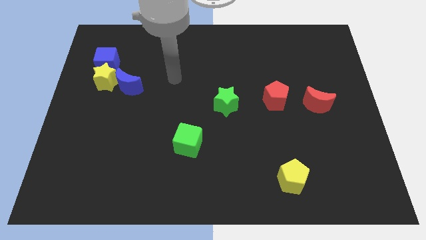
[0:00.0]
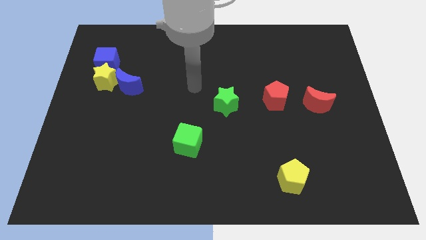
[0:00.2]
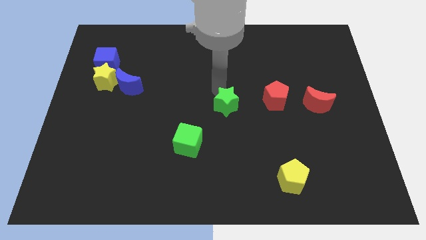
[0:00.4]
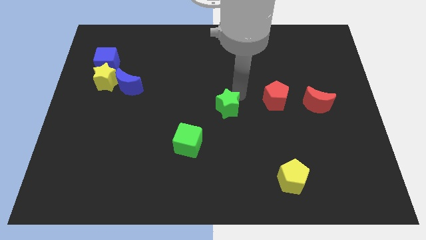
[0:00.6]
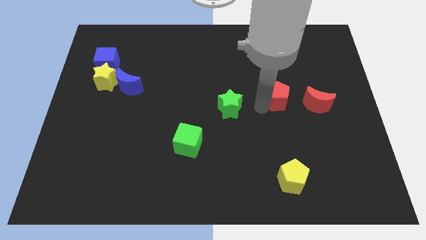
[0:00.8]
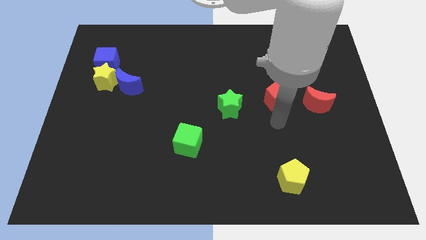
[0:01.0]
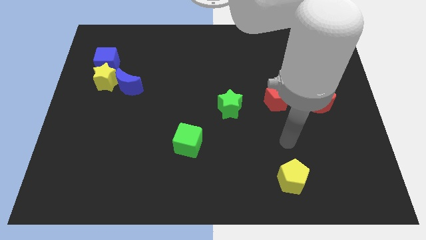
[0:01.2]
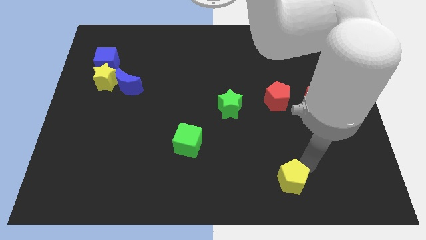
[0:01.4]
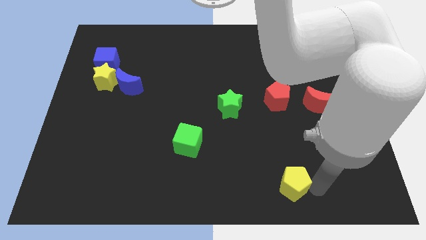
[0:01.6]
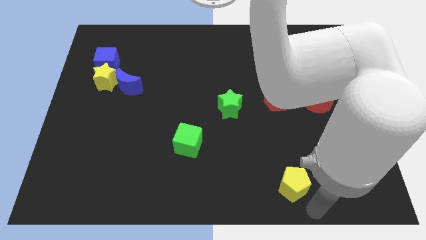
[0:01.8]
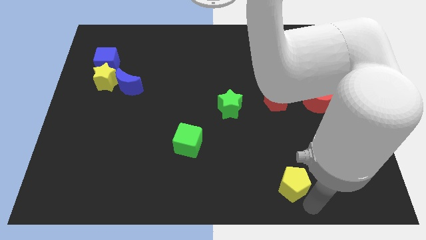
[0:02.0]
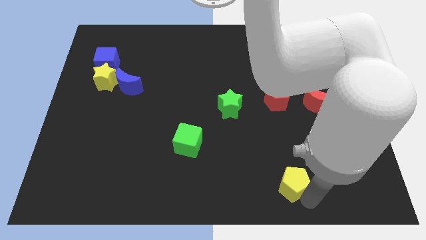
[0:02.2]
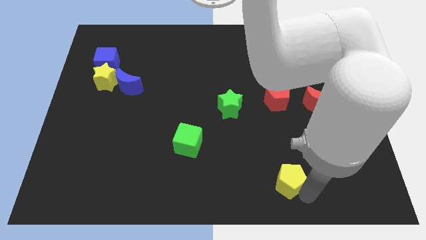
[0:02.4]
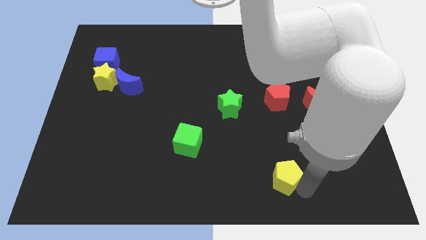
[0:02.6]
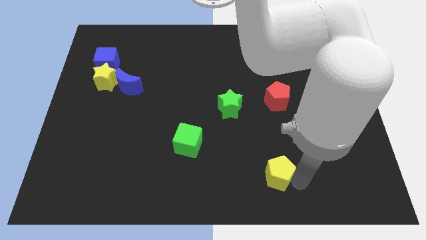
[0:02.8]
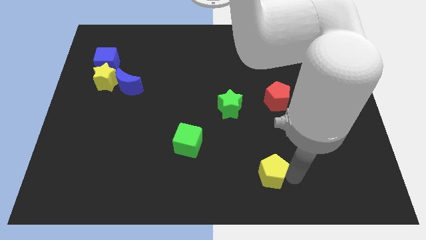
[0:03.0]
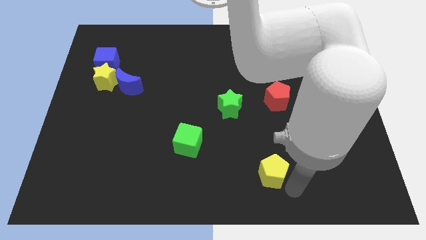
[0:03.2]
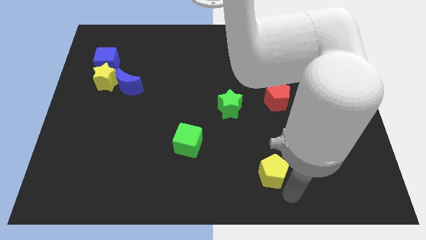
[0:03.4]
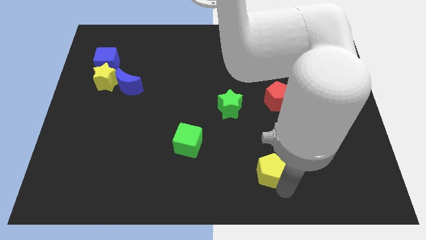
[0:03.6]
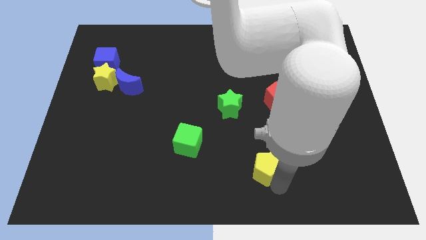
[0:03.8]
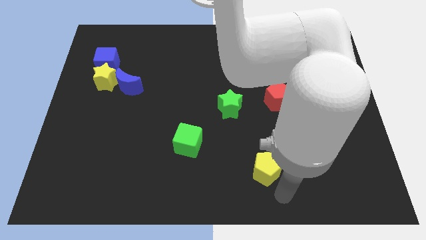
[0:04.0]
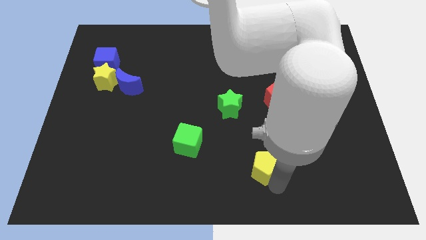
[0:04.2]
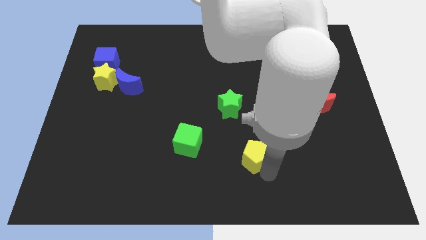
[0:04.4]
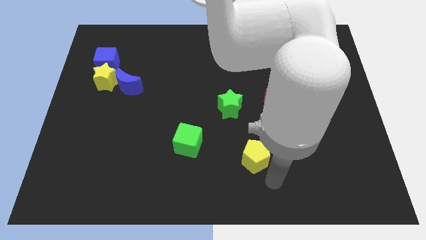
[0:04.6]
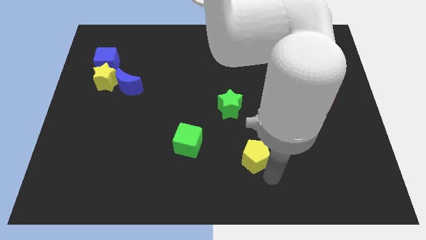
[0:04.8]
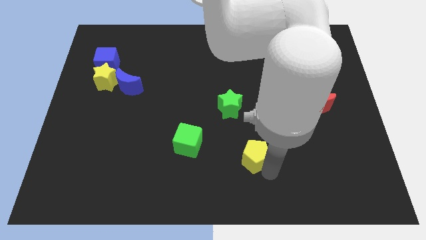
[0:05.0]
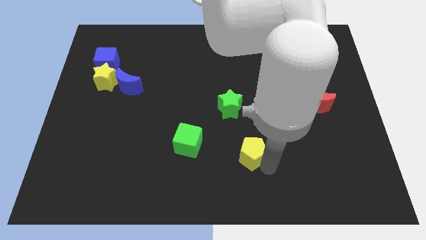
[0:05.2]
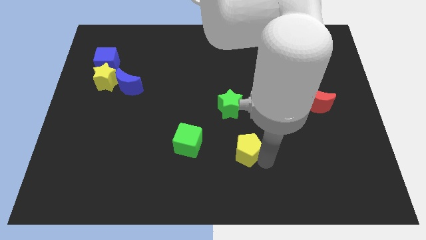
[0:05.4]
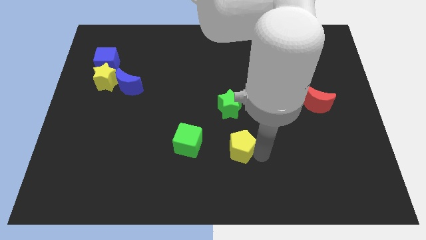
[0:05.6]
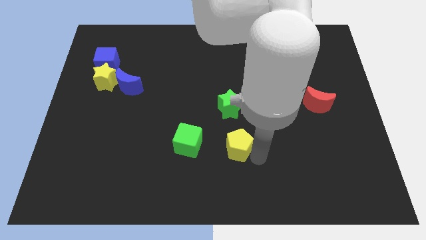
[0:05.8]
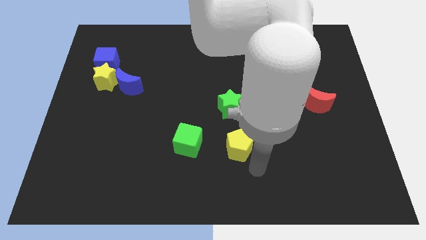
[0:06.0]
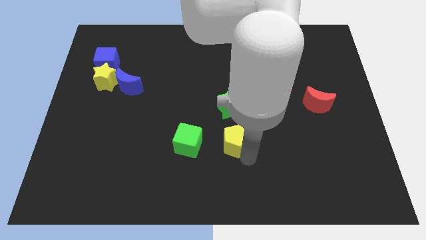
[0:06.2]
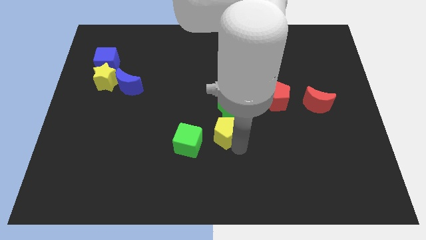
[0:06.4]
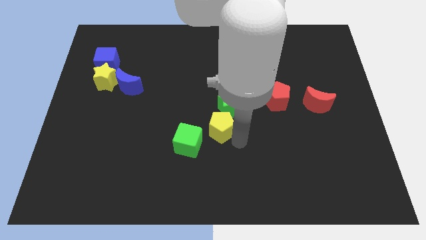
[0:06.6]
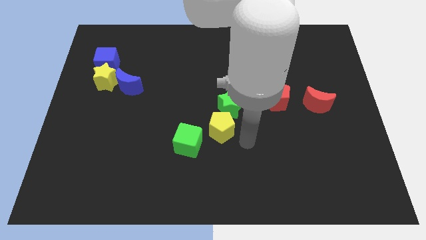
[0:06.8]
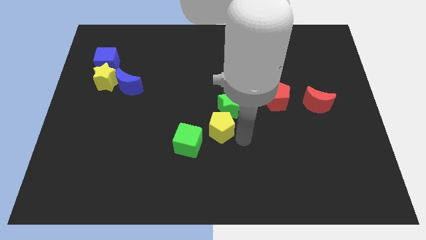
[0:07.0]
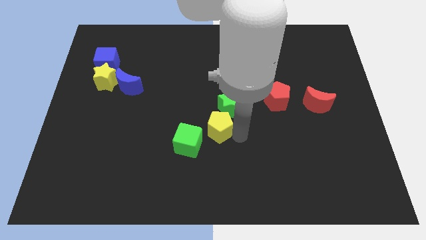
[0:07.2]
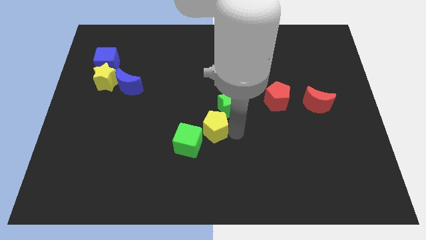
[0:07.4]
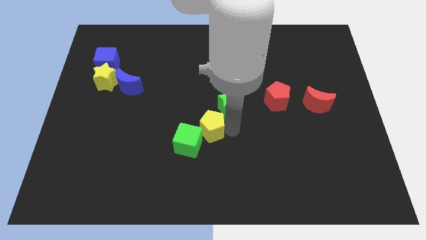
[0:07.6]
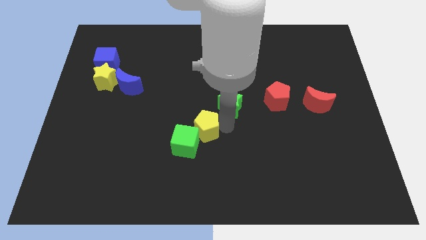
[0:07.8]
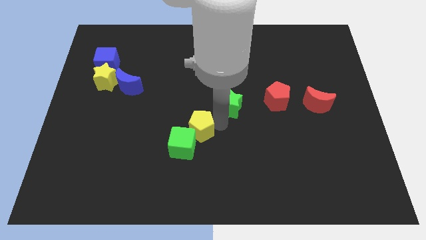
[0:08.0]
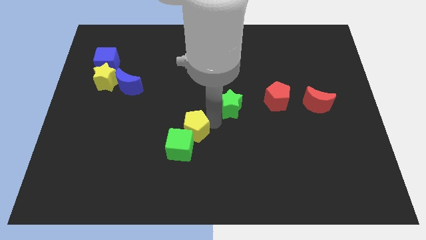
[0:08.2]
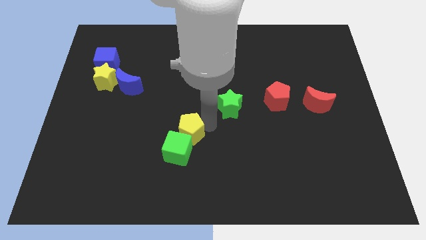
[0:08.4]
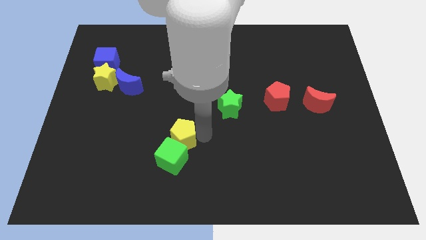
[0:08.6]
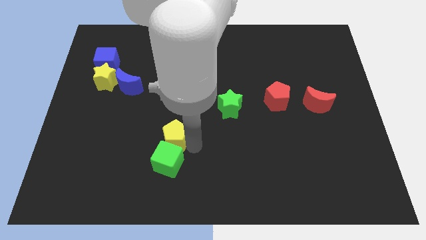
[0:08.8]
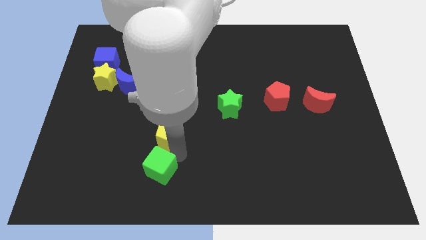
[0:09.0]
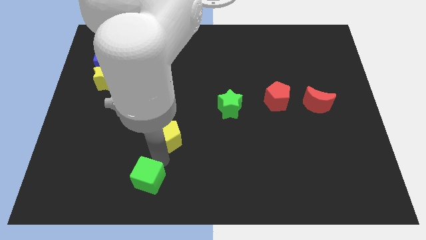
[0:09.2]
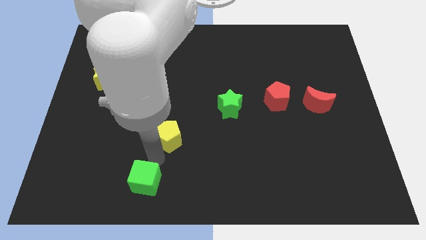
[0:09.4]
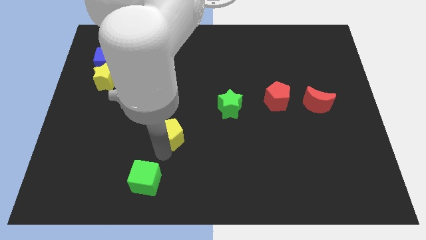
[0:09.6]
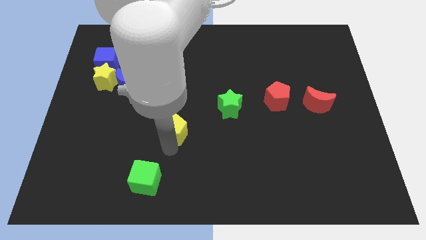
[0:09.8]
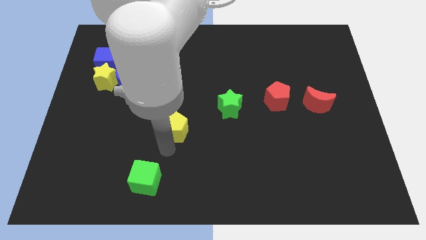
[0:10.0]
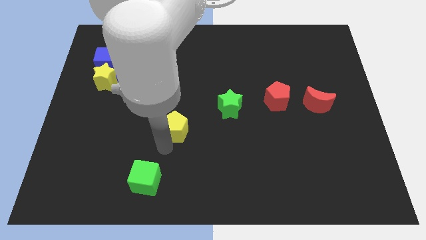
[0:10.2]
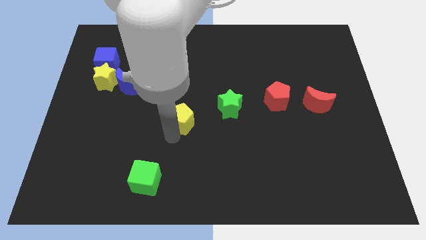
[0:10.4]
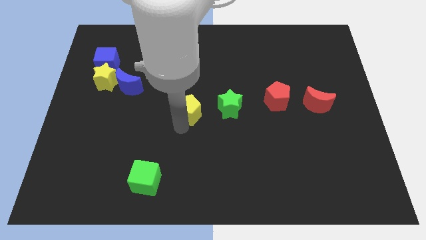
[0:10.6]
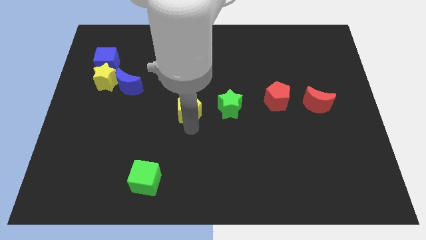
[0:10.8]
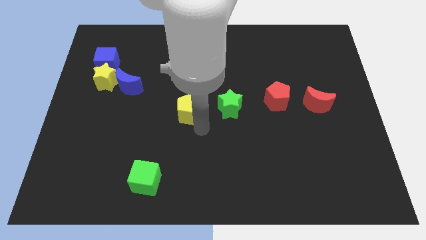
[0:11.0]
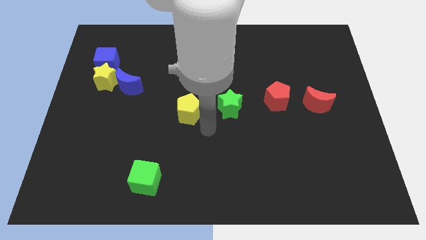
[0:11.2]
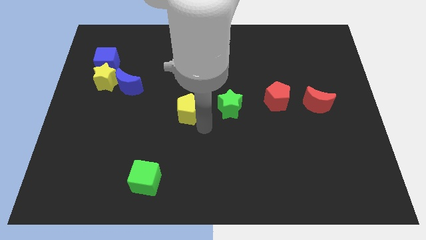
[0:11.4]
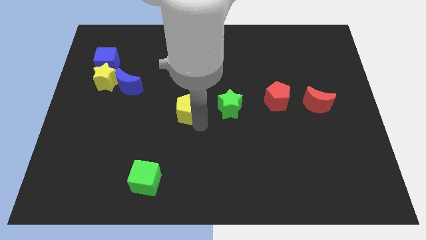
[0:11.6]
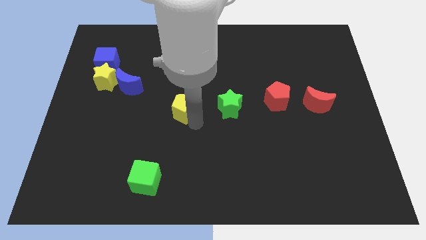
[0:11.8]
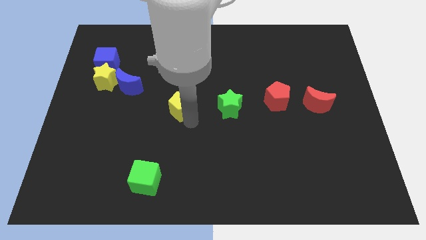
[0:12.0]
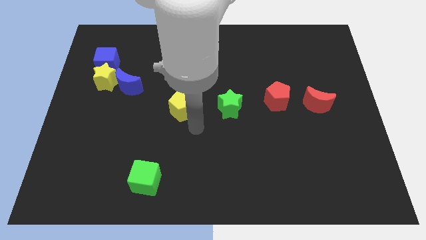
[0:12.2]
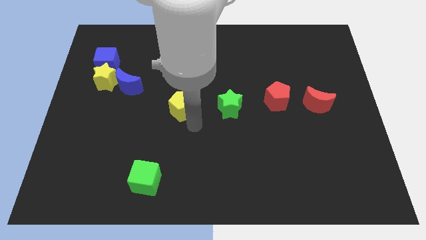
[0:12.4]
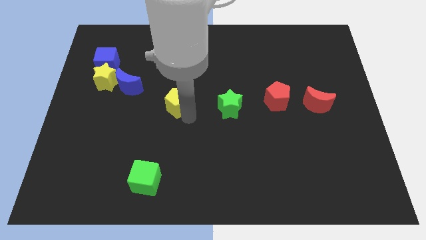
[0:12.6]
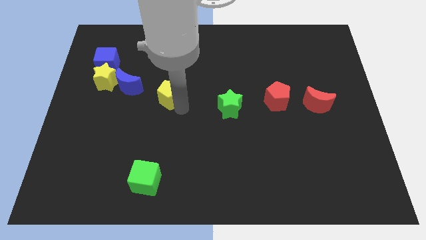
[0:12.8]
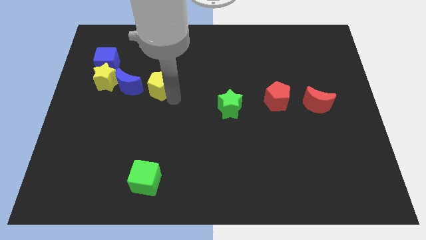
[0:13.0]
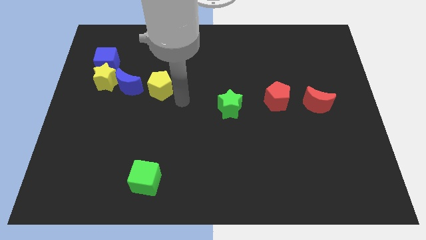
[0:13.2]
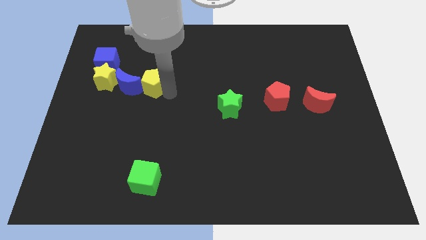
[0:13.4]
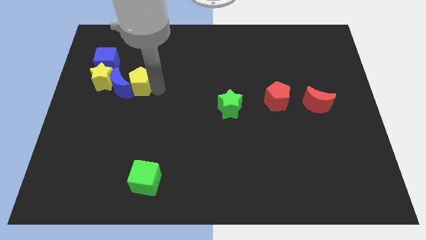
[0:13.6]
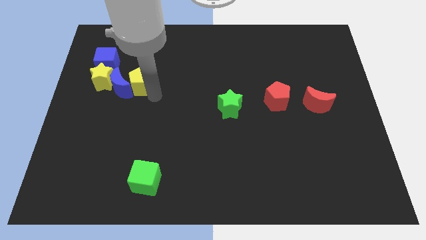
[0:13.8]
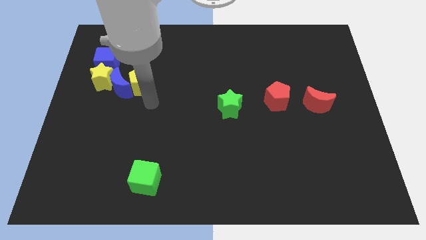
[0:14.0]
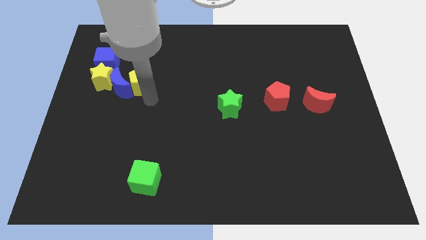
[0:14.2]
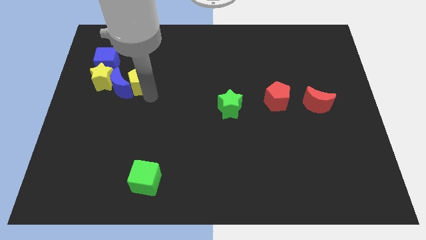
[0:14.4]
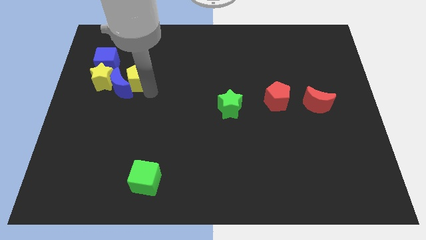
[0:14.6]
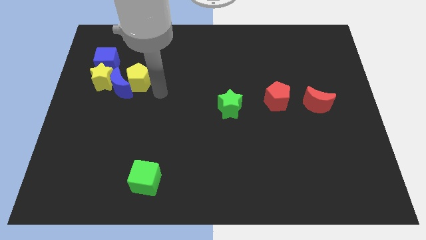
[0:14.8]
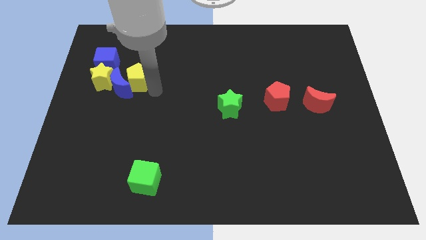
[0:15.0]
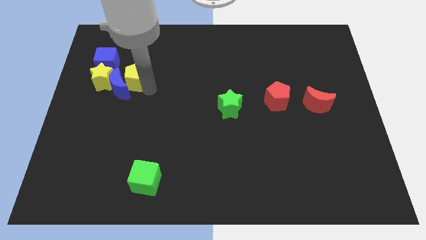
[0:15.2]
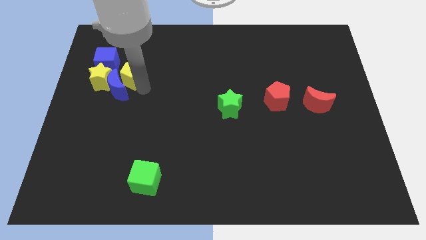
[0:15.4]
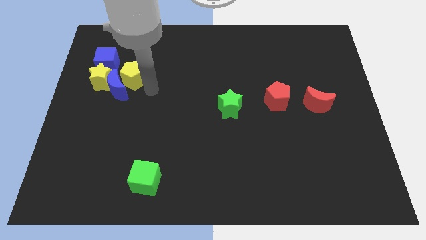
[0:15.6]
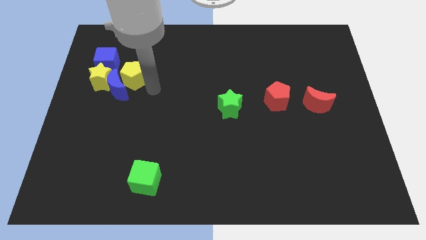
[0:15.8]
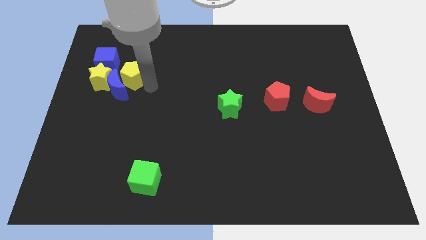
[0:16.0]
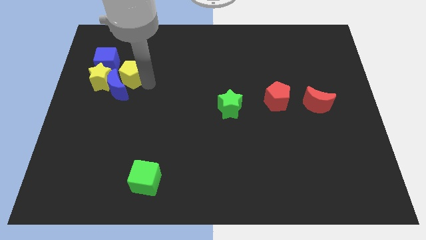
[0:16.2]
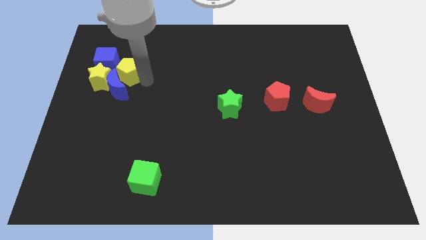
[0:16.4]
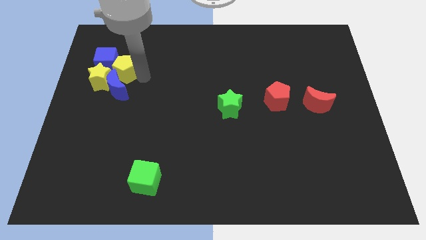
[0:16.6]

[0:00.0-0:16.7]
move the yellow pentagon to the blue cube
